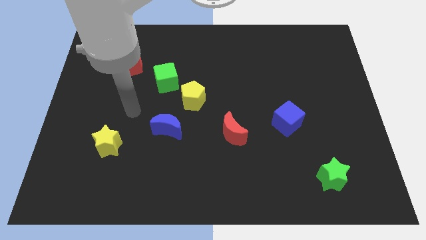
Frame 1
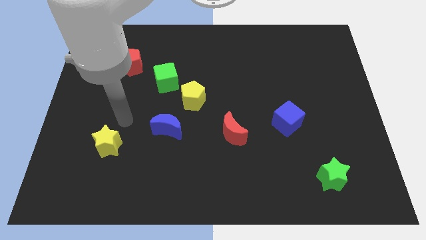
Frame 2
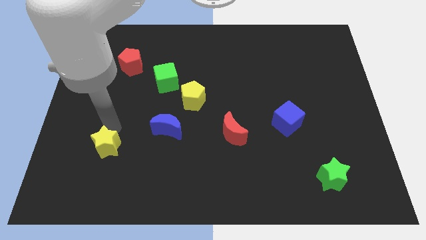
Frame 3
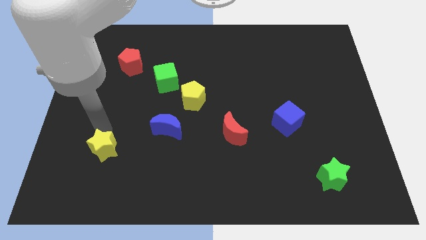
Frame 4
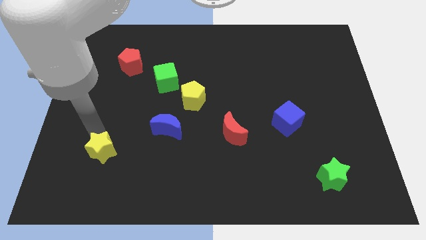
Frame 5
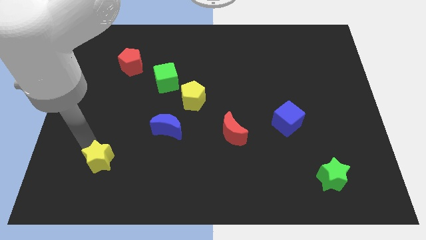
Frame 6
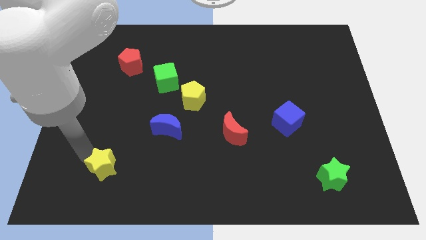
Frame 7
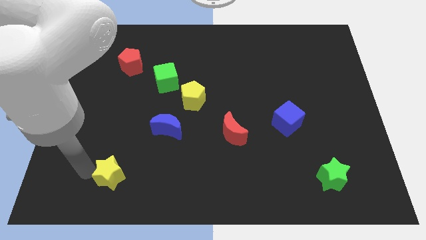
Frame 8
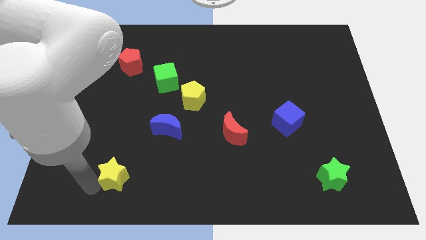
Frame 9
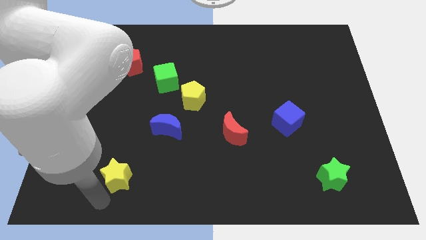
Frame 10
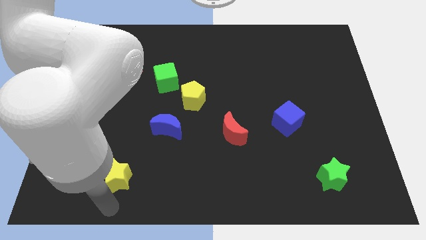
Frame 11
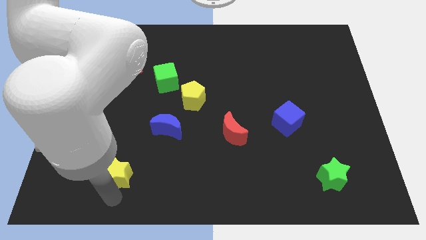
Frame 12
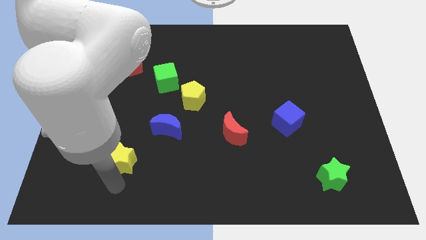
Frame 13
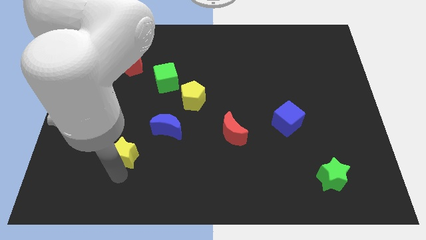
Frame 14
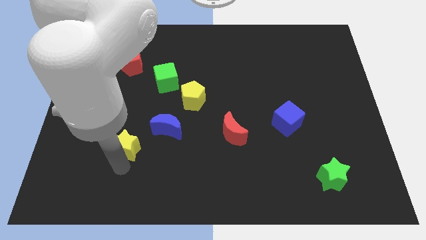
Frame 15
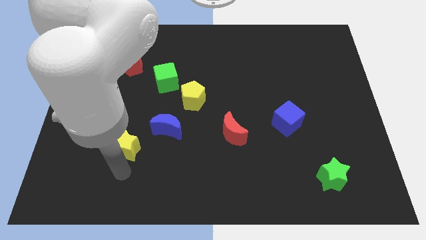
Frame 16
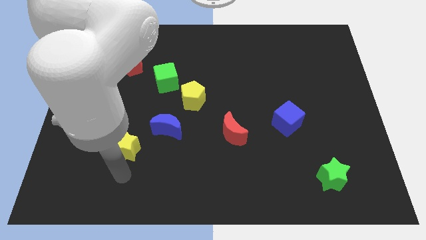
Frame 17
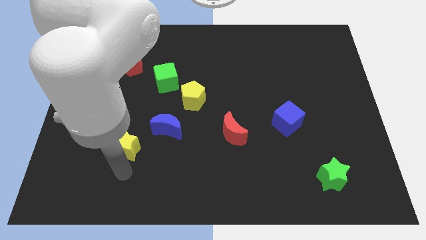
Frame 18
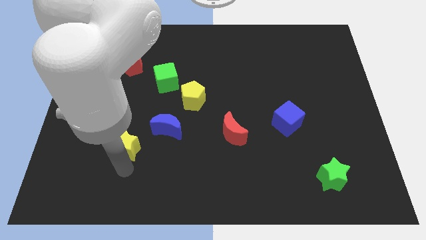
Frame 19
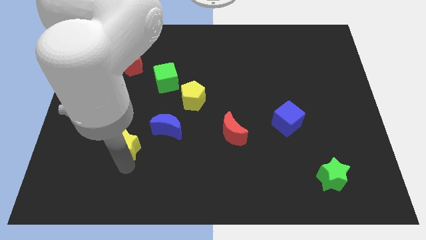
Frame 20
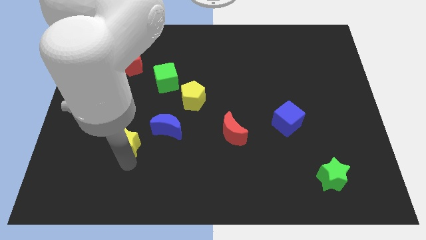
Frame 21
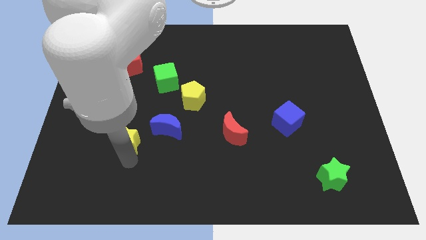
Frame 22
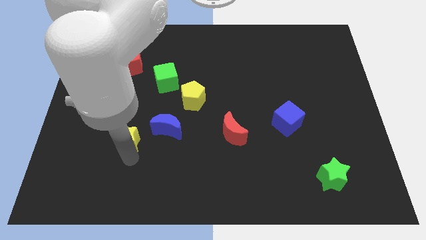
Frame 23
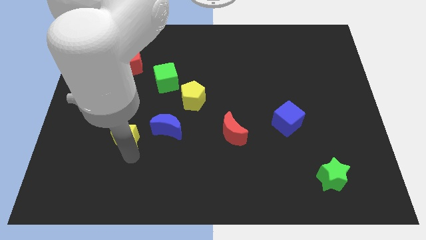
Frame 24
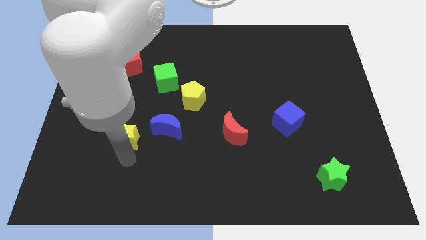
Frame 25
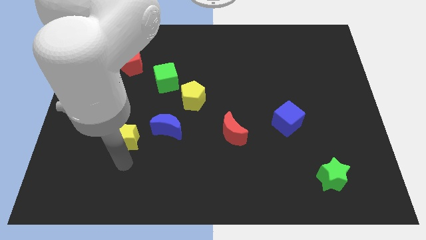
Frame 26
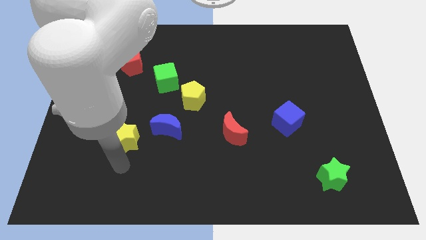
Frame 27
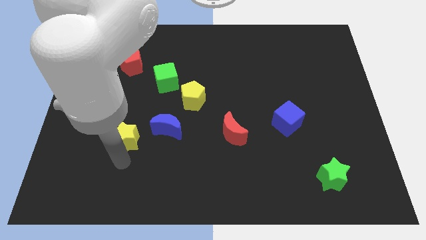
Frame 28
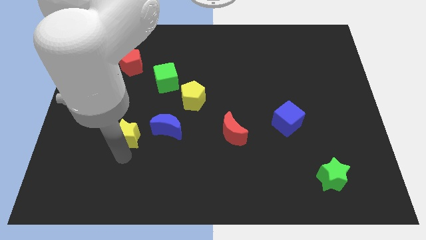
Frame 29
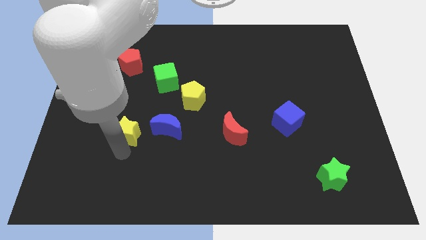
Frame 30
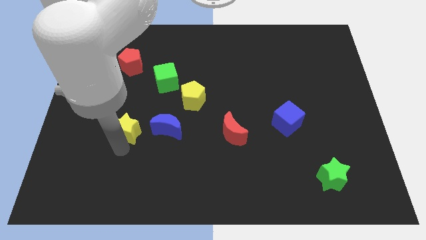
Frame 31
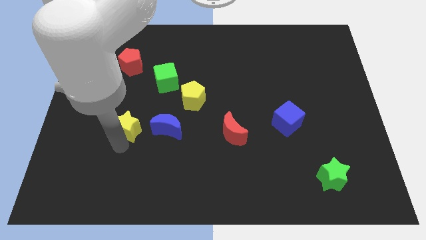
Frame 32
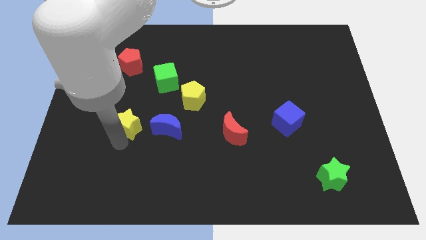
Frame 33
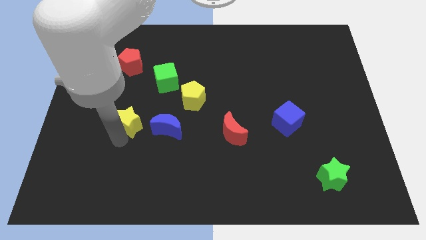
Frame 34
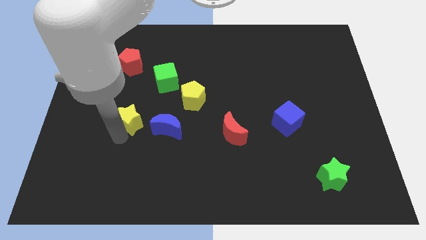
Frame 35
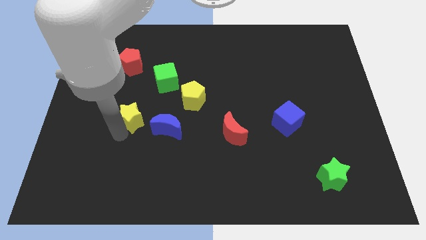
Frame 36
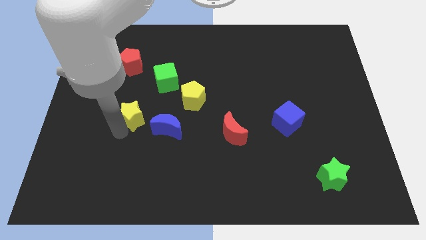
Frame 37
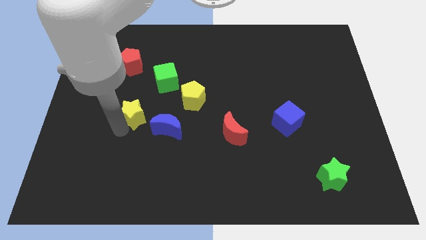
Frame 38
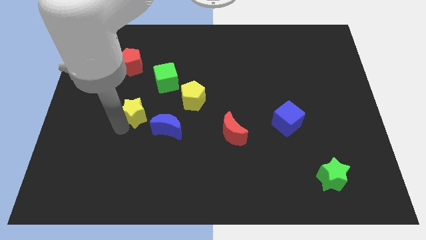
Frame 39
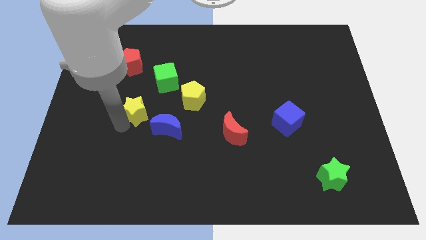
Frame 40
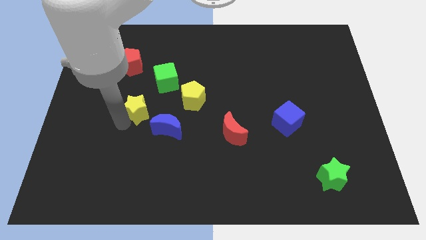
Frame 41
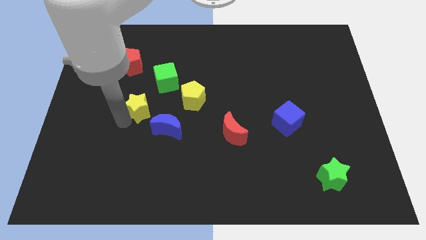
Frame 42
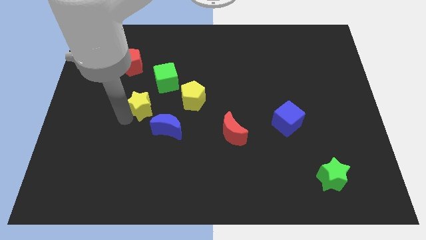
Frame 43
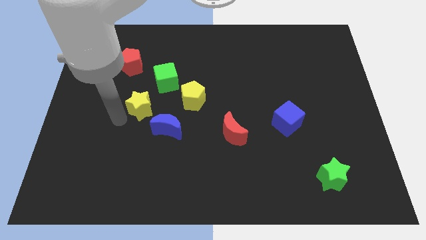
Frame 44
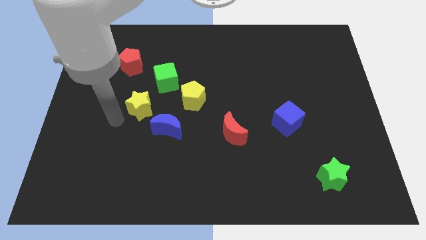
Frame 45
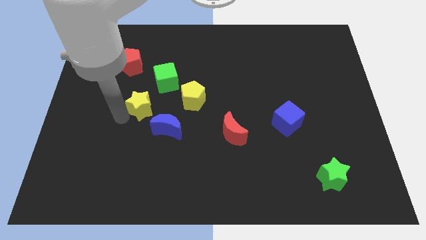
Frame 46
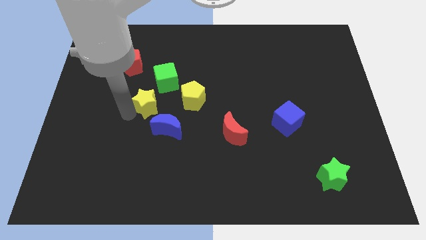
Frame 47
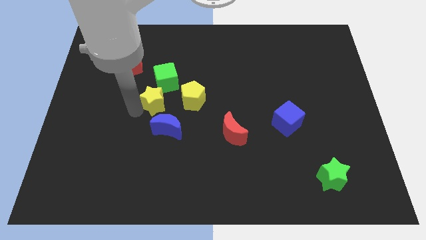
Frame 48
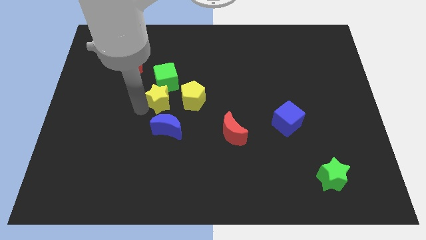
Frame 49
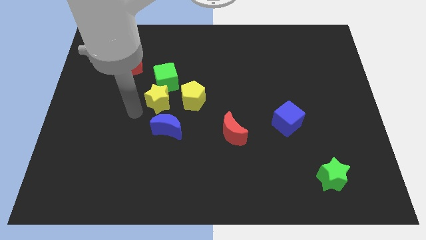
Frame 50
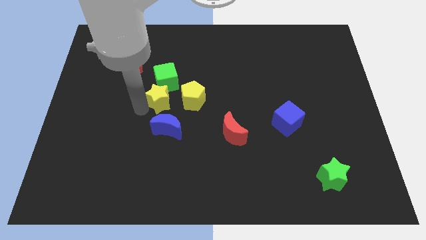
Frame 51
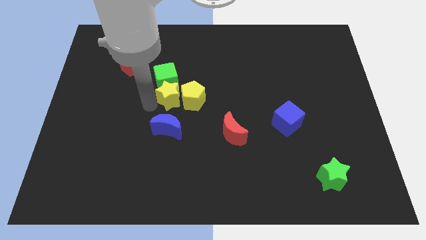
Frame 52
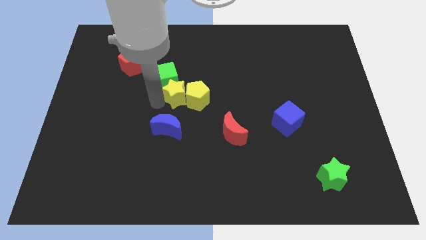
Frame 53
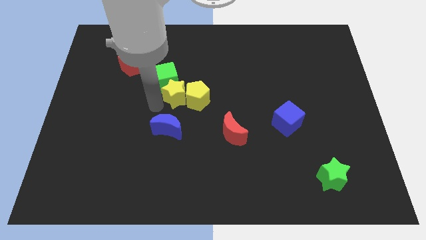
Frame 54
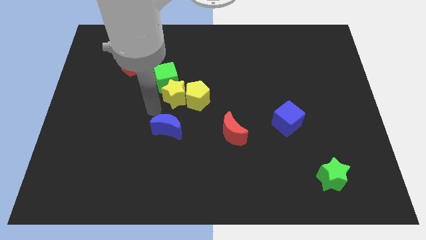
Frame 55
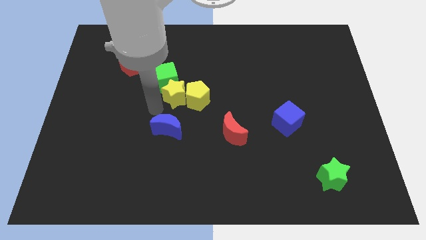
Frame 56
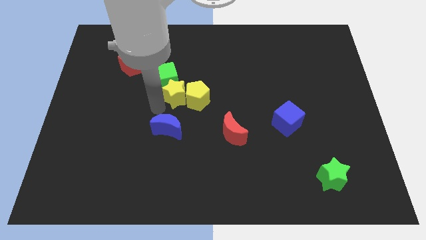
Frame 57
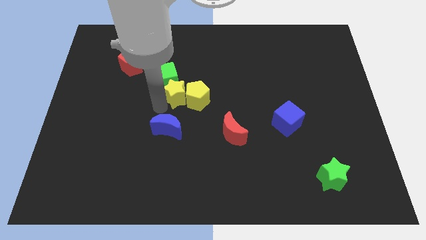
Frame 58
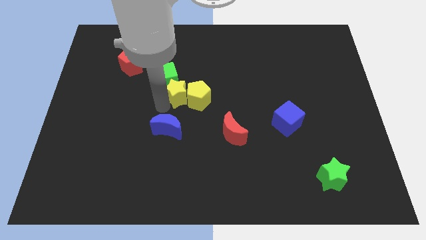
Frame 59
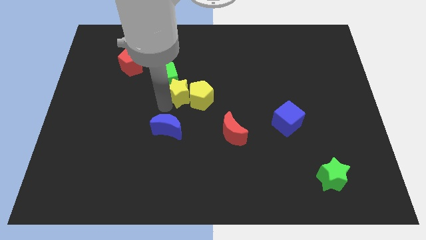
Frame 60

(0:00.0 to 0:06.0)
move the yellow star up and right diagonally

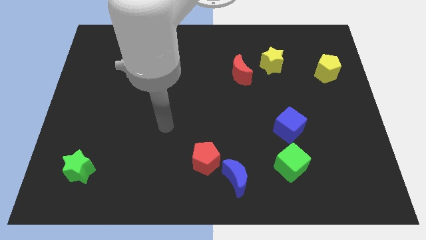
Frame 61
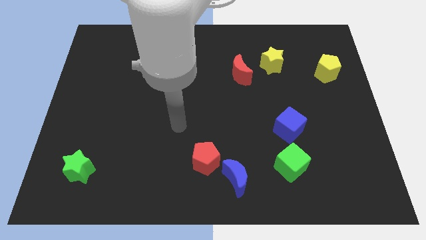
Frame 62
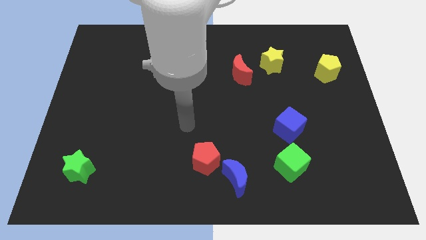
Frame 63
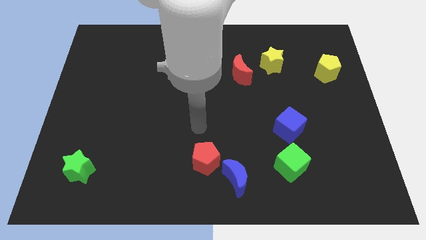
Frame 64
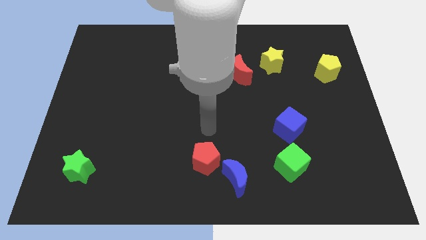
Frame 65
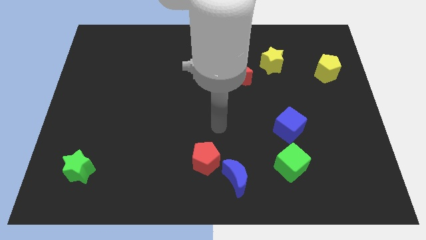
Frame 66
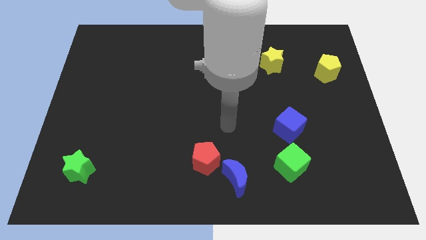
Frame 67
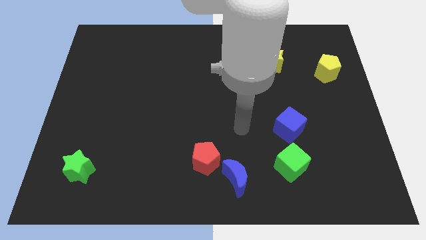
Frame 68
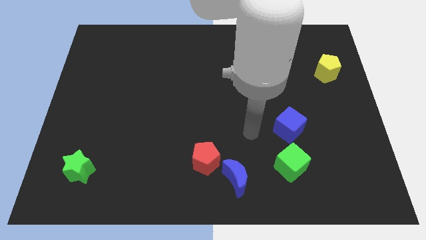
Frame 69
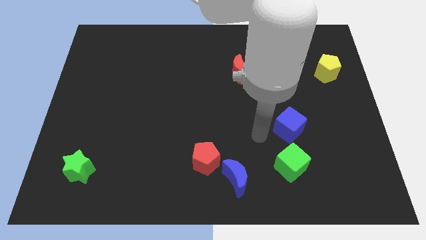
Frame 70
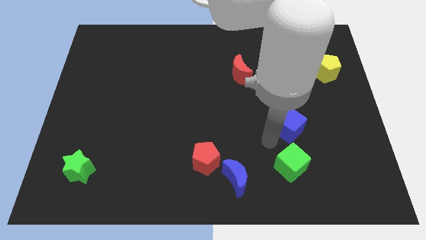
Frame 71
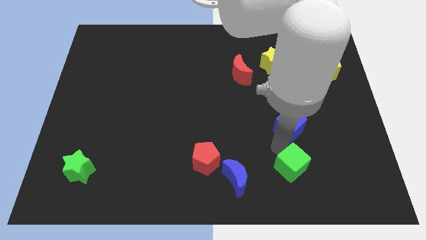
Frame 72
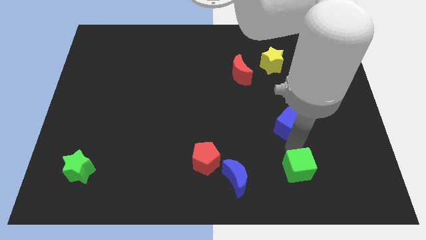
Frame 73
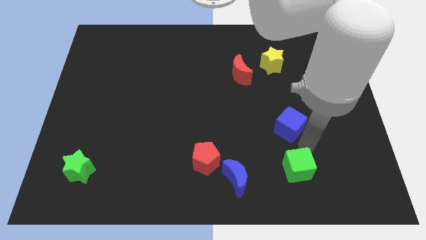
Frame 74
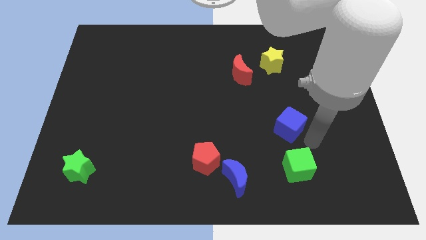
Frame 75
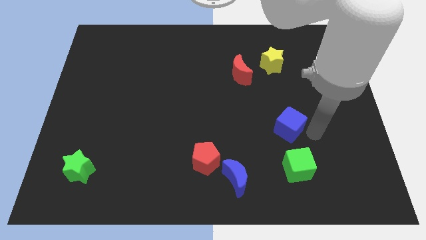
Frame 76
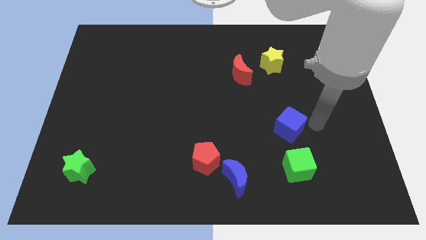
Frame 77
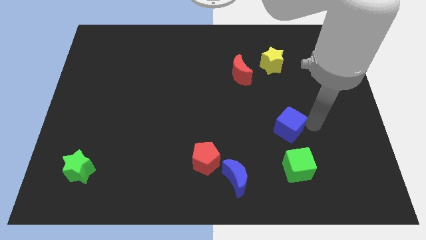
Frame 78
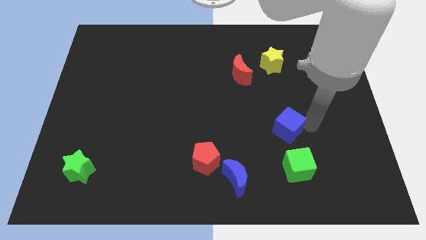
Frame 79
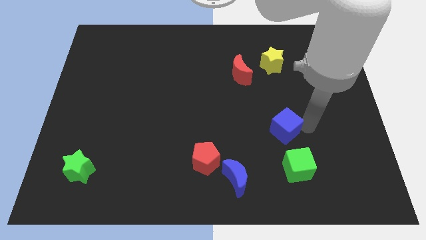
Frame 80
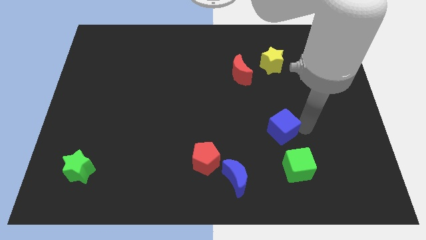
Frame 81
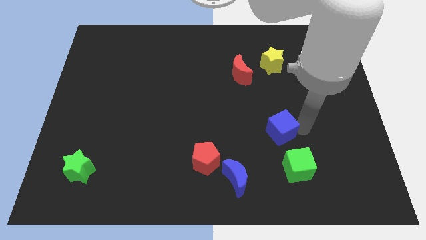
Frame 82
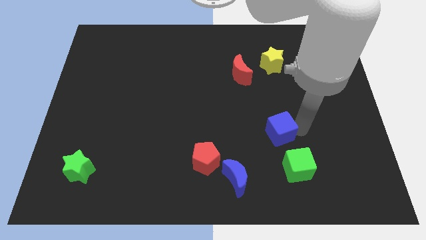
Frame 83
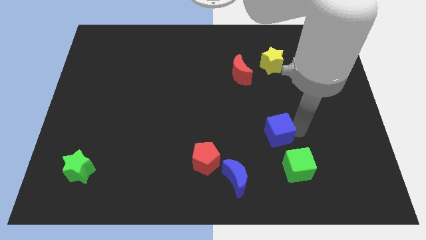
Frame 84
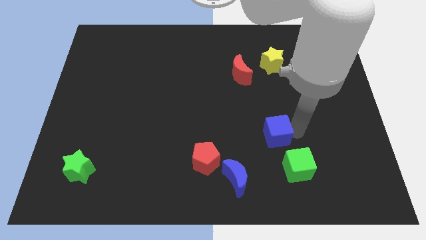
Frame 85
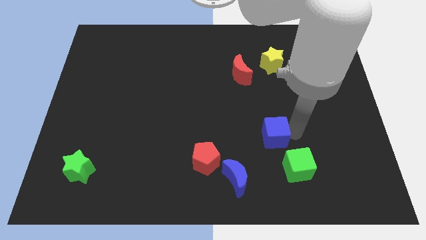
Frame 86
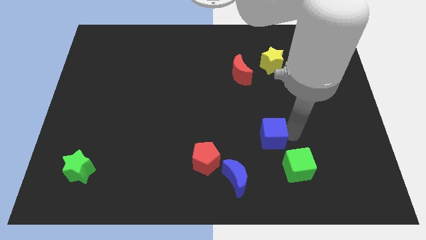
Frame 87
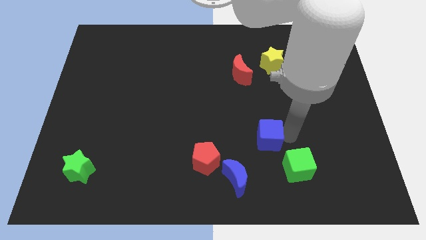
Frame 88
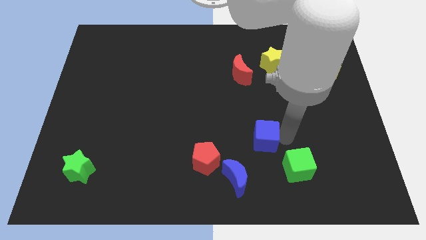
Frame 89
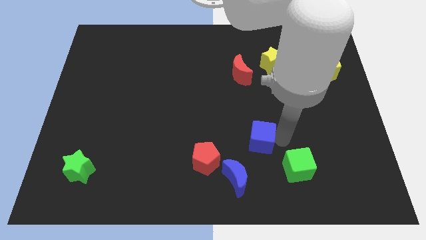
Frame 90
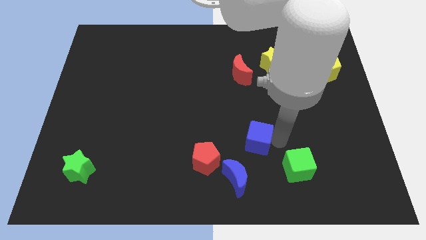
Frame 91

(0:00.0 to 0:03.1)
move the blue cube a little bit to the left
